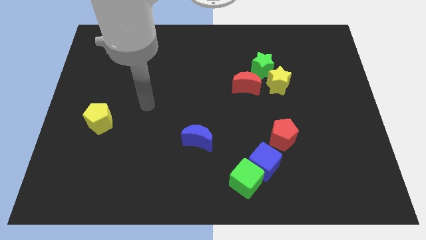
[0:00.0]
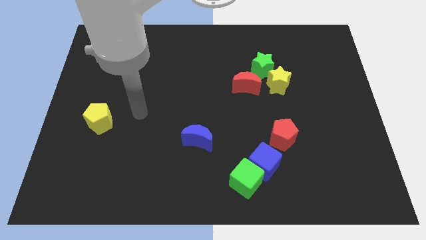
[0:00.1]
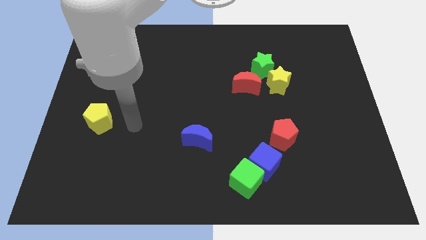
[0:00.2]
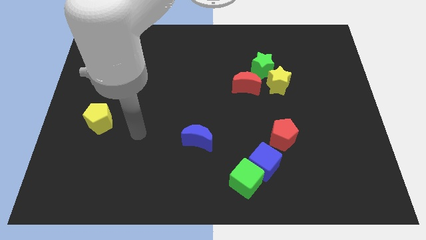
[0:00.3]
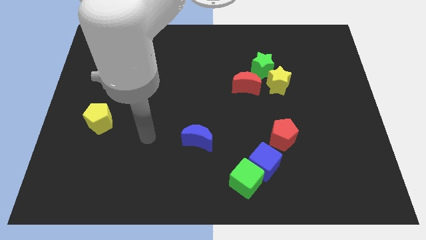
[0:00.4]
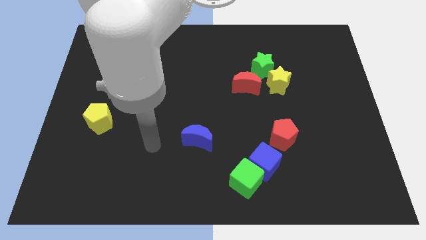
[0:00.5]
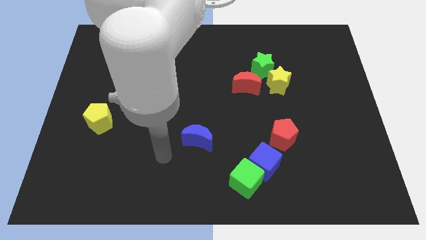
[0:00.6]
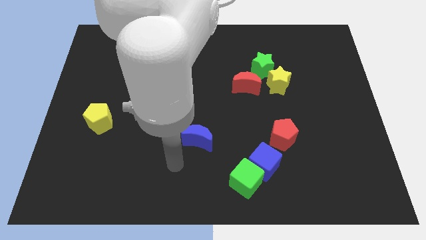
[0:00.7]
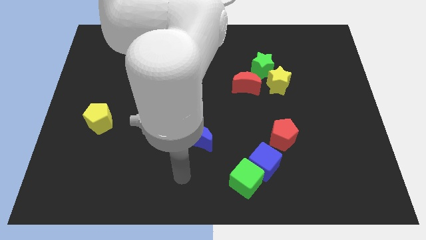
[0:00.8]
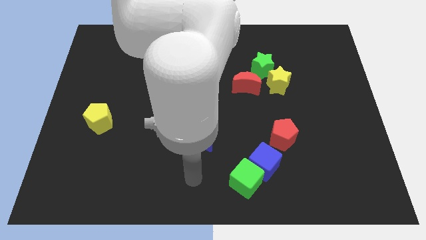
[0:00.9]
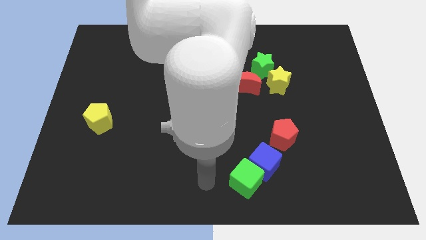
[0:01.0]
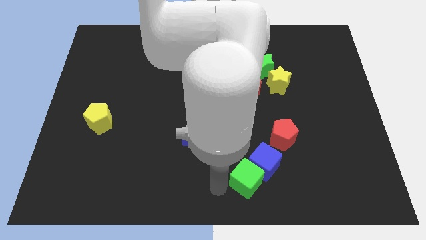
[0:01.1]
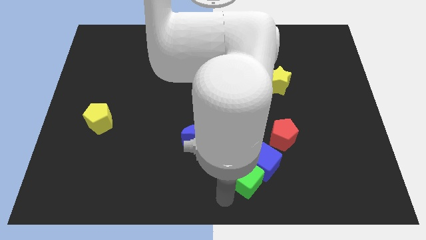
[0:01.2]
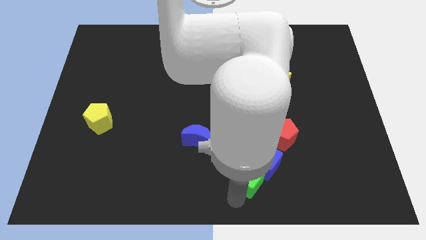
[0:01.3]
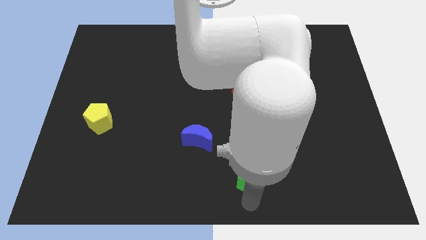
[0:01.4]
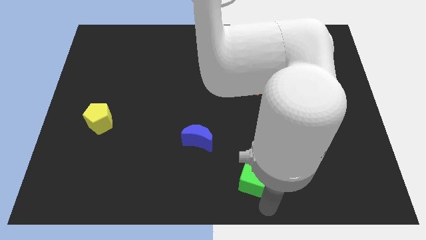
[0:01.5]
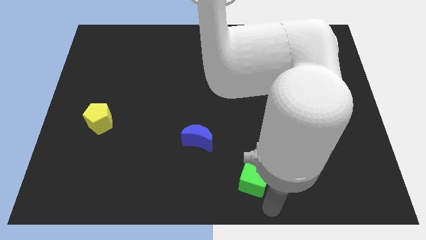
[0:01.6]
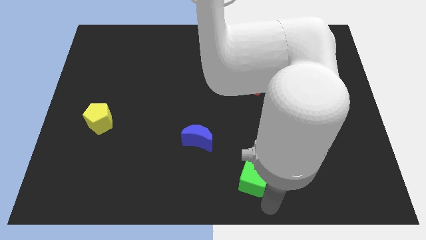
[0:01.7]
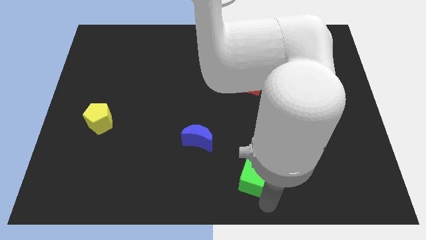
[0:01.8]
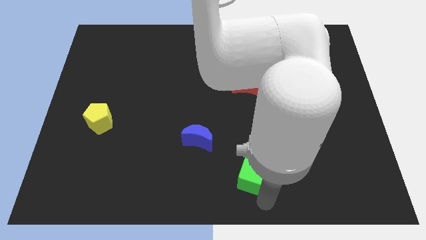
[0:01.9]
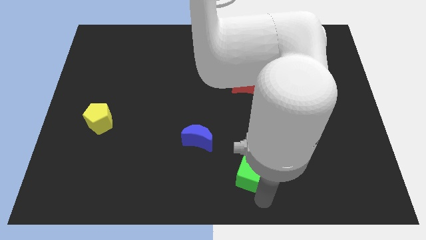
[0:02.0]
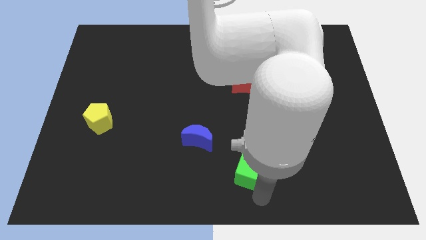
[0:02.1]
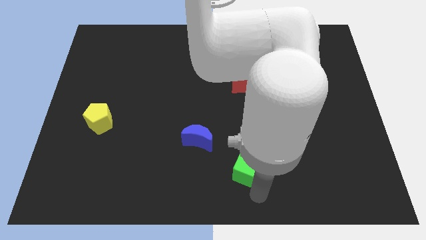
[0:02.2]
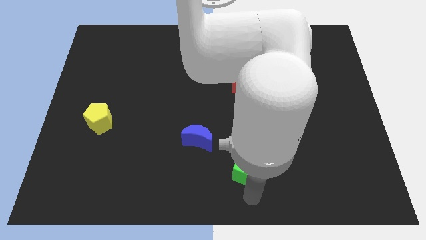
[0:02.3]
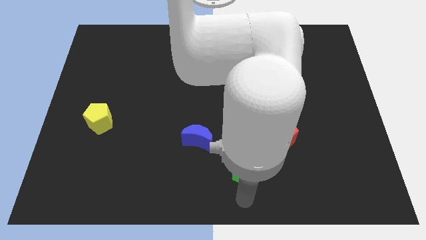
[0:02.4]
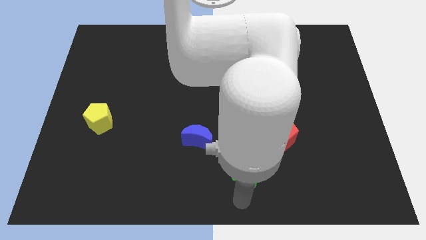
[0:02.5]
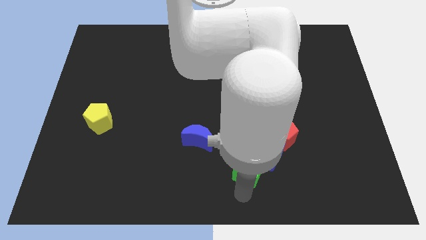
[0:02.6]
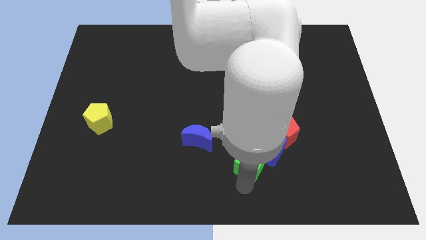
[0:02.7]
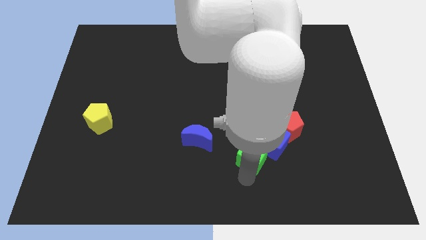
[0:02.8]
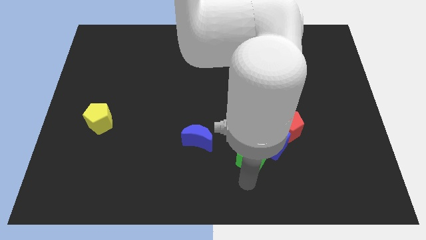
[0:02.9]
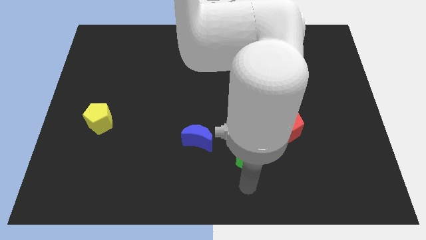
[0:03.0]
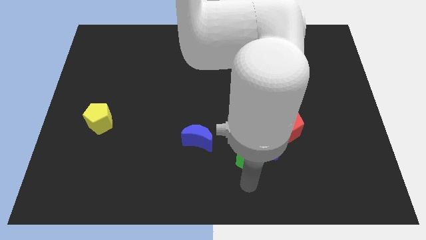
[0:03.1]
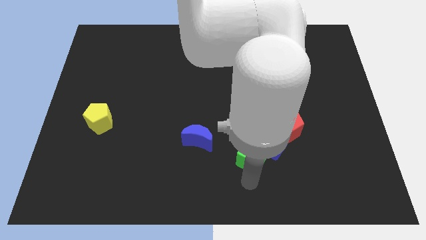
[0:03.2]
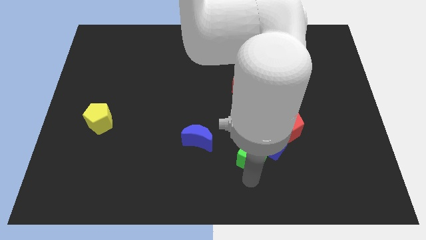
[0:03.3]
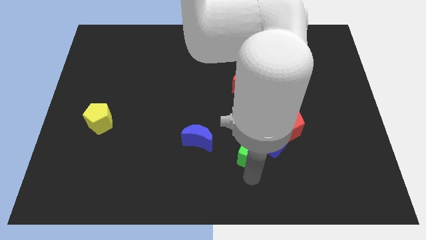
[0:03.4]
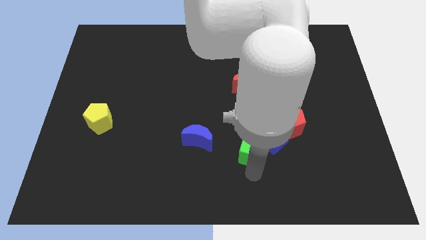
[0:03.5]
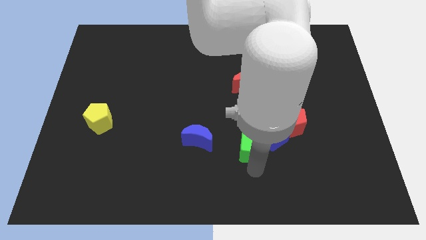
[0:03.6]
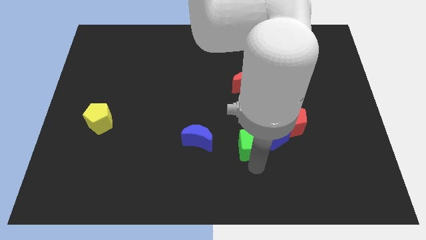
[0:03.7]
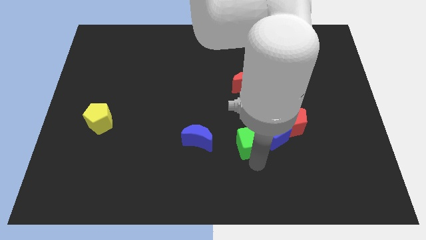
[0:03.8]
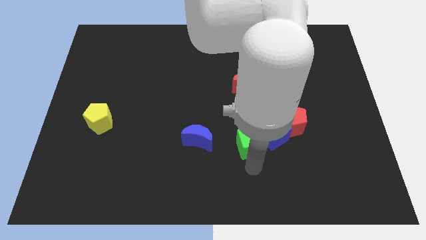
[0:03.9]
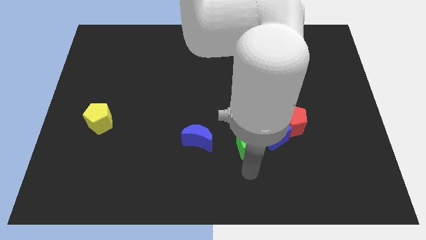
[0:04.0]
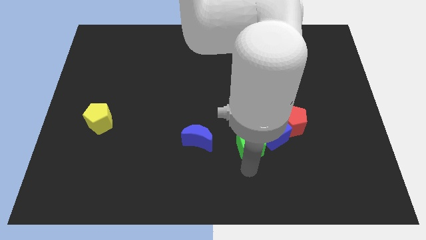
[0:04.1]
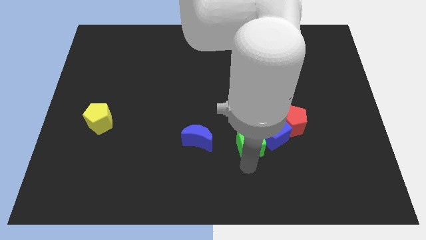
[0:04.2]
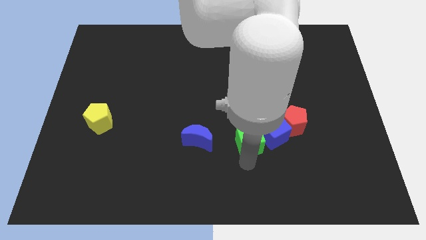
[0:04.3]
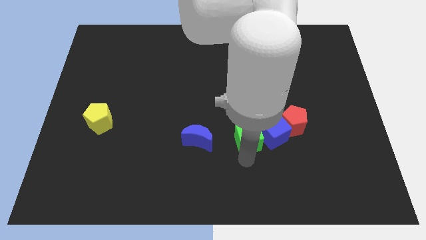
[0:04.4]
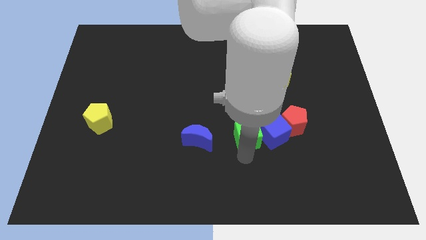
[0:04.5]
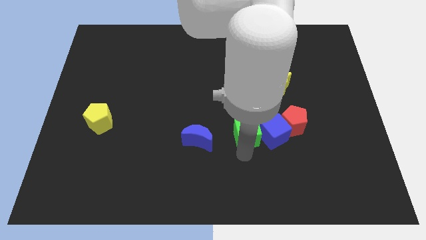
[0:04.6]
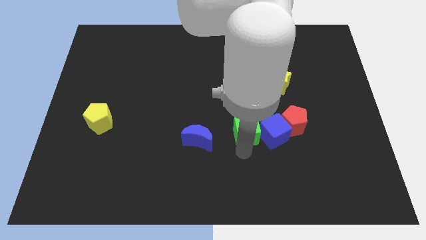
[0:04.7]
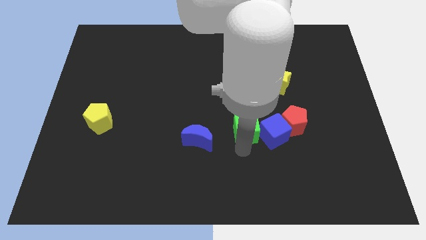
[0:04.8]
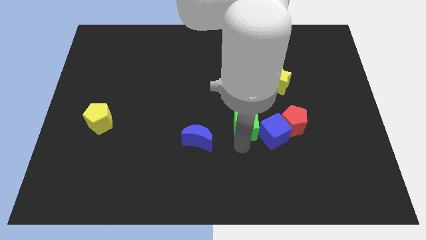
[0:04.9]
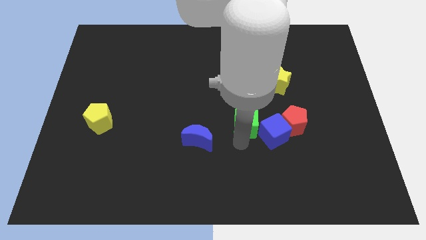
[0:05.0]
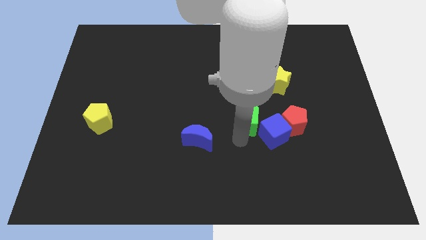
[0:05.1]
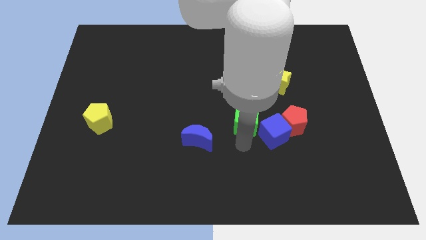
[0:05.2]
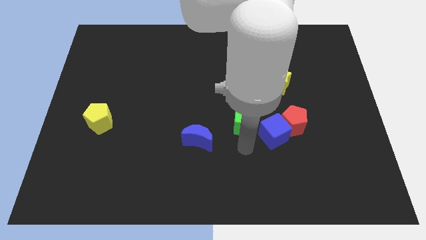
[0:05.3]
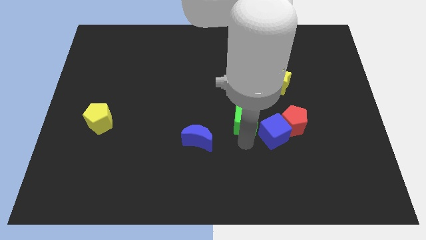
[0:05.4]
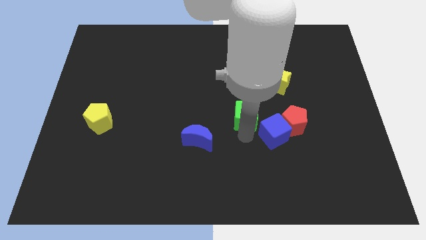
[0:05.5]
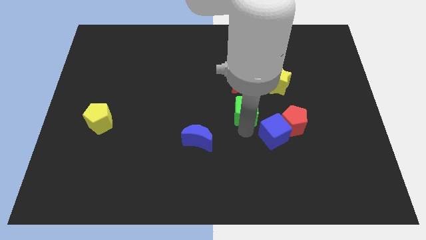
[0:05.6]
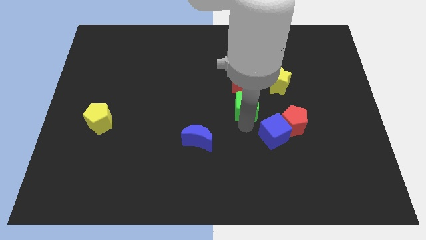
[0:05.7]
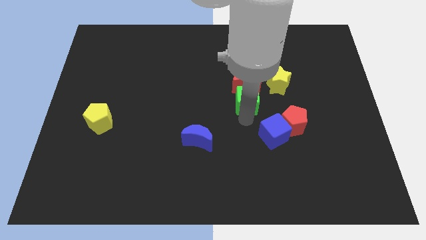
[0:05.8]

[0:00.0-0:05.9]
slide the green cube towards the red moon

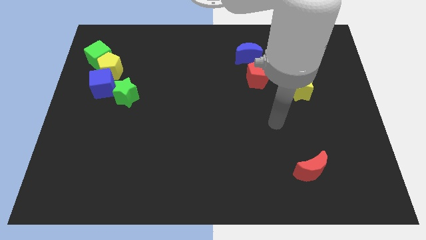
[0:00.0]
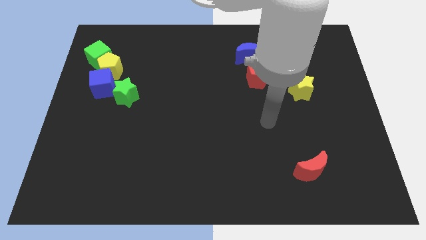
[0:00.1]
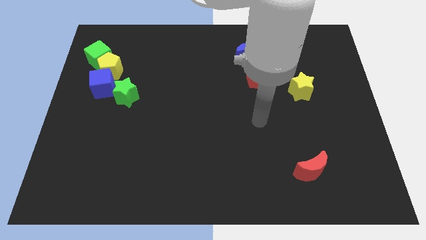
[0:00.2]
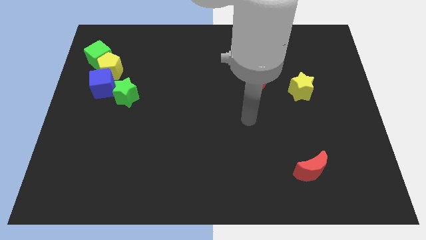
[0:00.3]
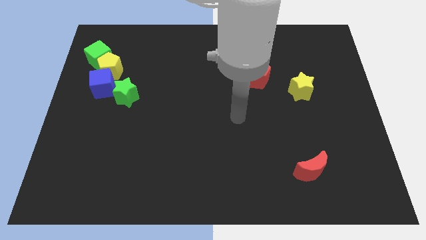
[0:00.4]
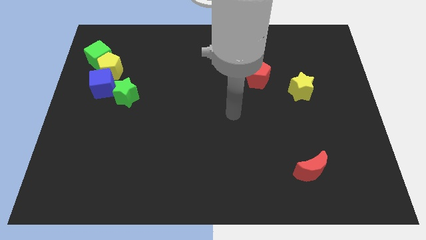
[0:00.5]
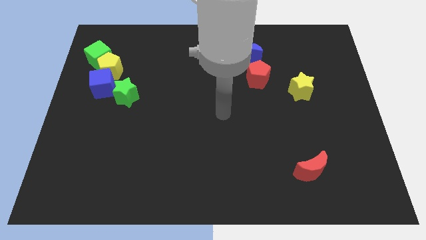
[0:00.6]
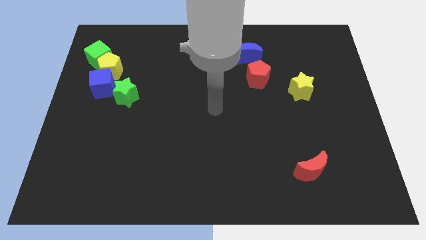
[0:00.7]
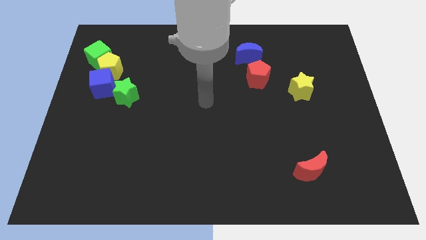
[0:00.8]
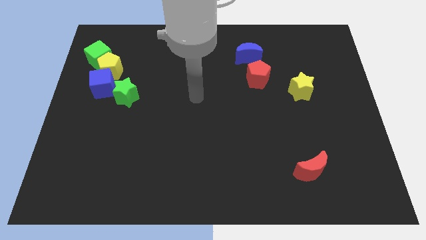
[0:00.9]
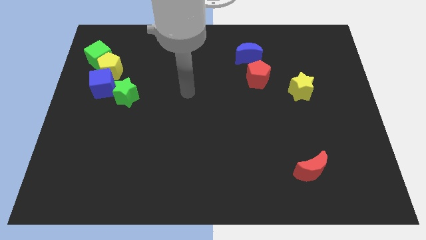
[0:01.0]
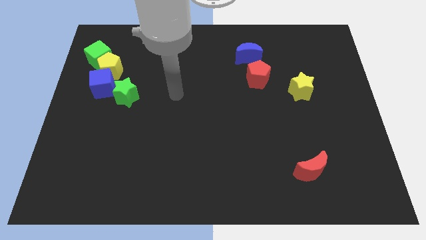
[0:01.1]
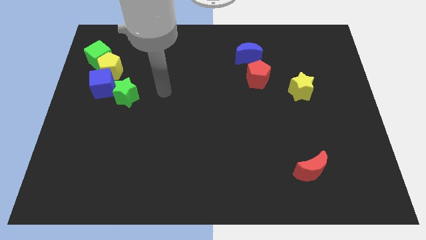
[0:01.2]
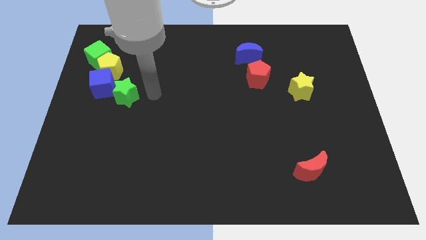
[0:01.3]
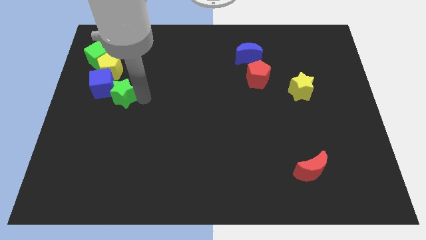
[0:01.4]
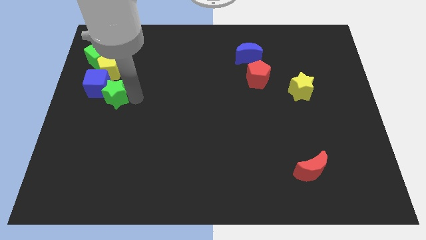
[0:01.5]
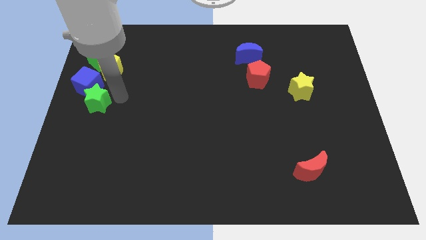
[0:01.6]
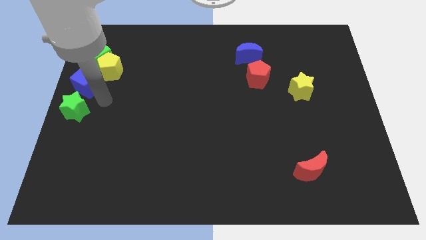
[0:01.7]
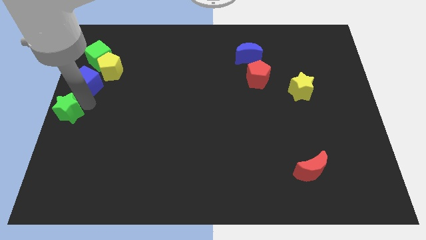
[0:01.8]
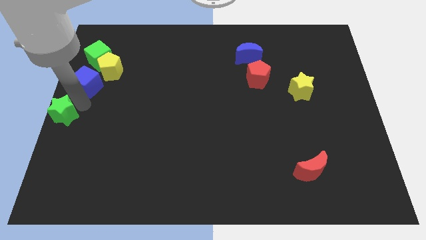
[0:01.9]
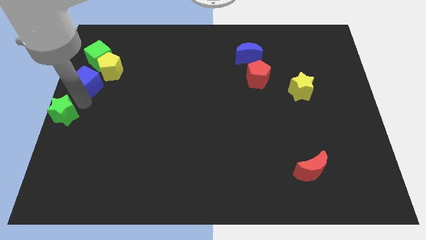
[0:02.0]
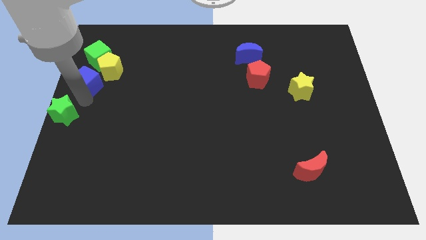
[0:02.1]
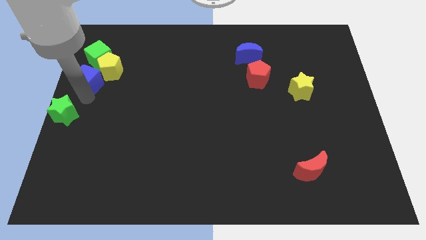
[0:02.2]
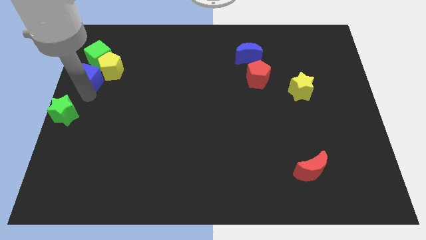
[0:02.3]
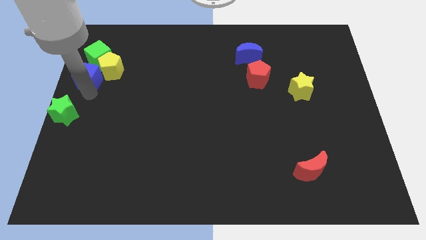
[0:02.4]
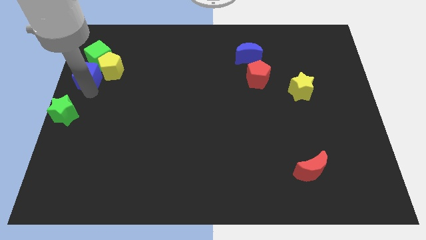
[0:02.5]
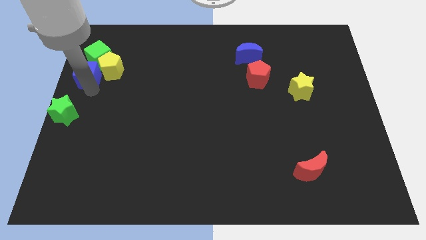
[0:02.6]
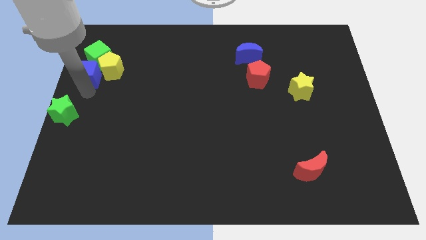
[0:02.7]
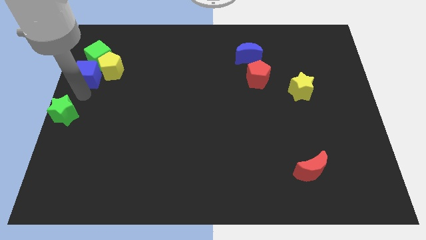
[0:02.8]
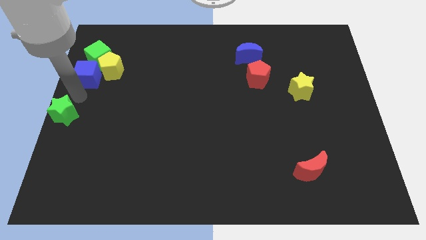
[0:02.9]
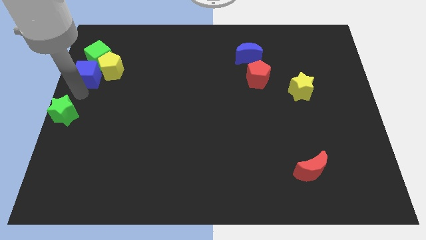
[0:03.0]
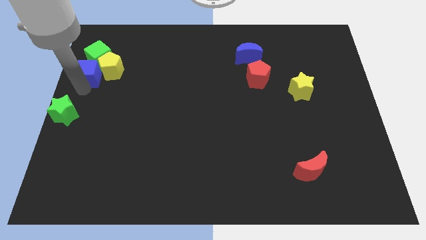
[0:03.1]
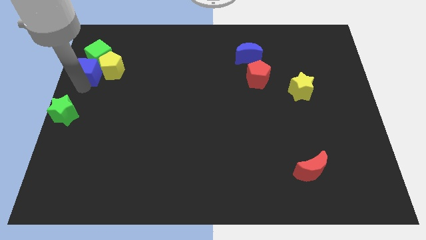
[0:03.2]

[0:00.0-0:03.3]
push the blue cube next to the green cube
